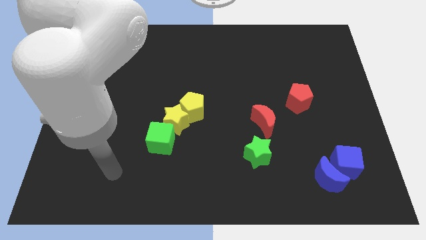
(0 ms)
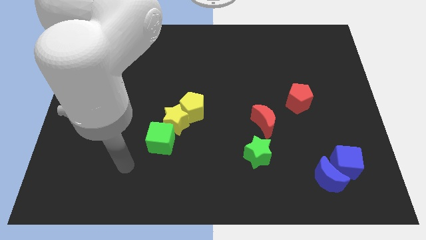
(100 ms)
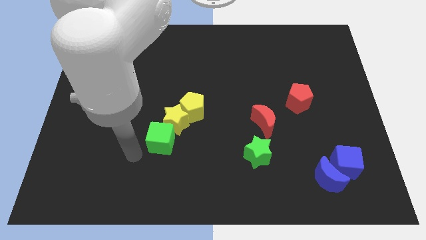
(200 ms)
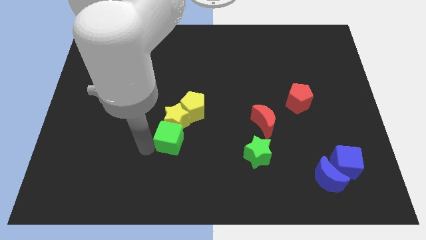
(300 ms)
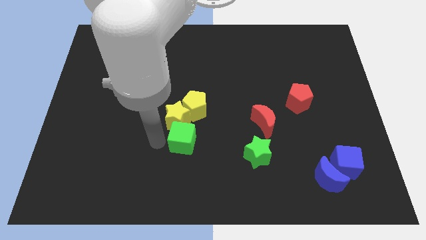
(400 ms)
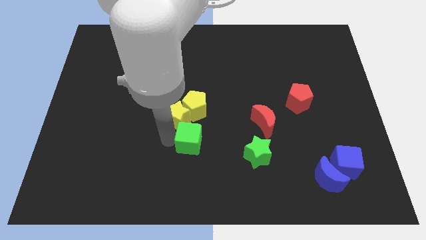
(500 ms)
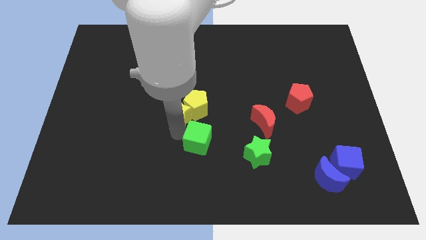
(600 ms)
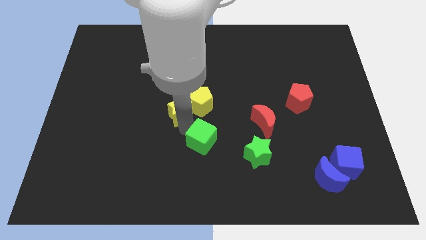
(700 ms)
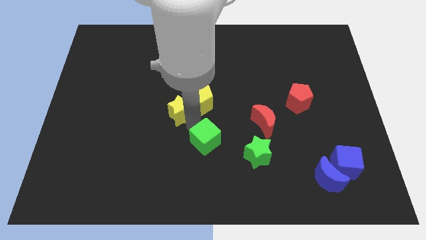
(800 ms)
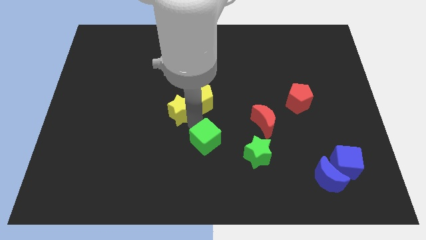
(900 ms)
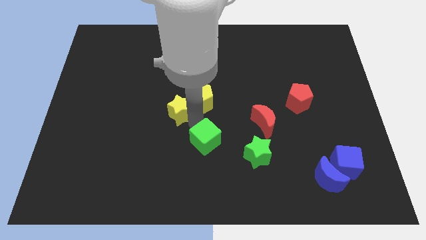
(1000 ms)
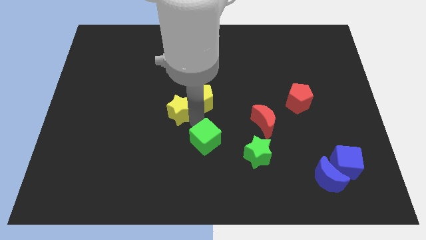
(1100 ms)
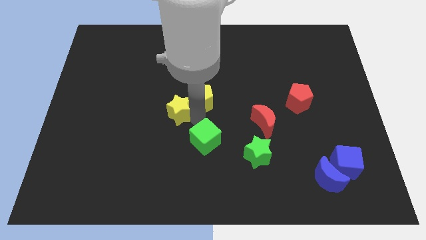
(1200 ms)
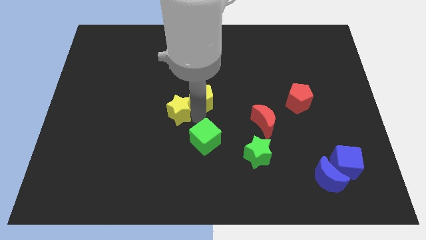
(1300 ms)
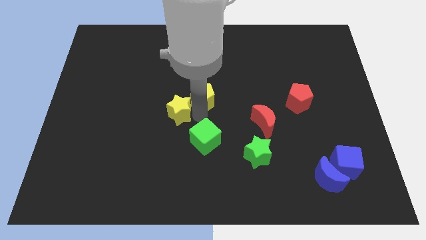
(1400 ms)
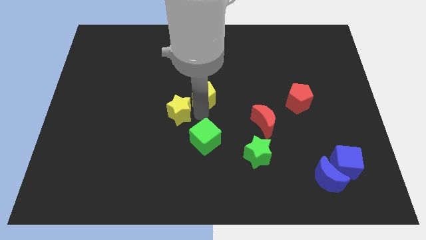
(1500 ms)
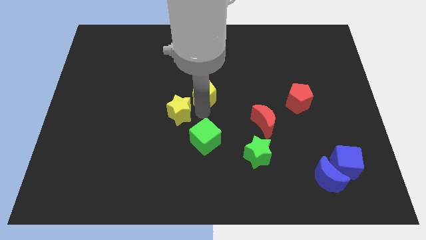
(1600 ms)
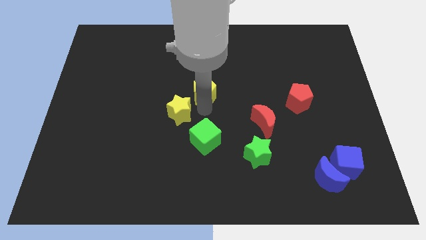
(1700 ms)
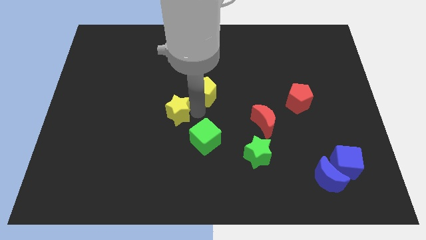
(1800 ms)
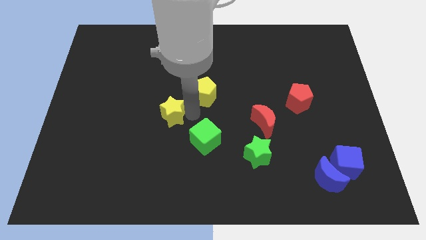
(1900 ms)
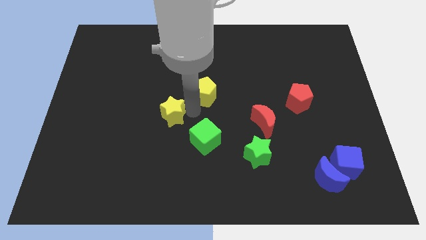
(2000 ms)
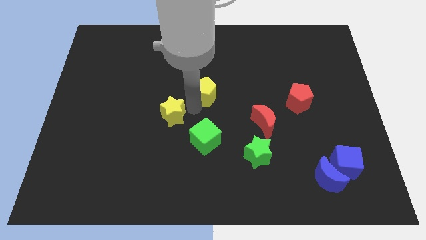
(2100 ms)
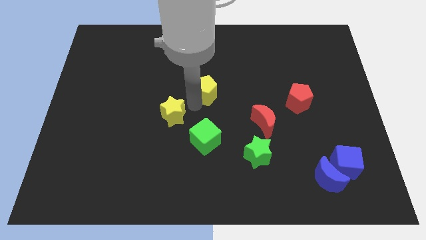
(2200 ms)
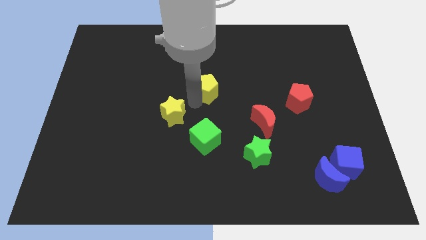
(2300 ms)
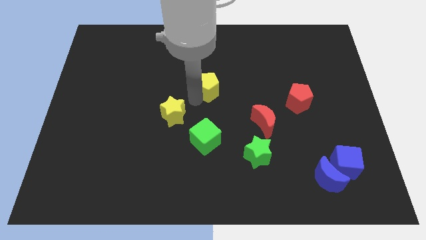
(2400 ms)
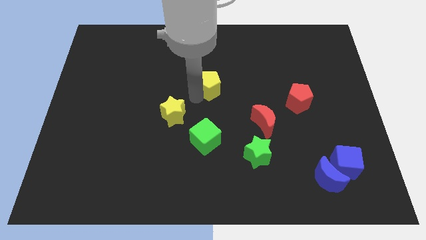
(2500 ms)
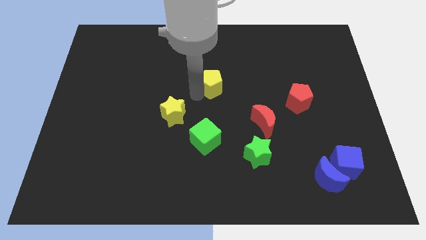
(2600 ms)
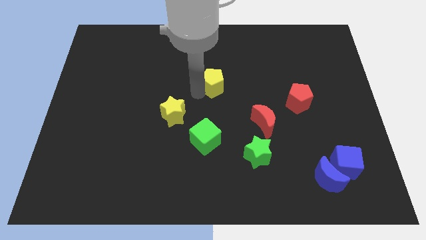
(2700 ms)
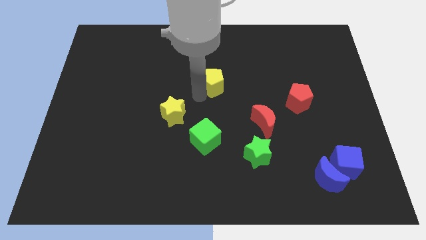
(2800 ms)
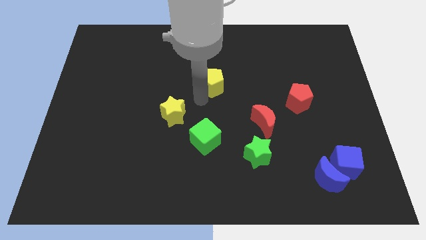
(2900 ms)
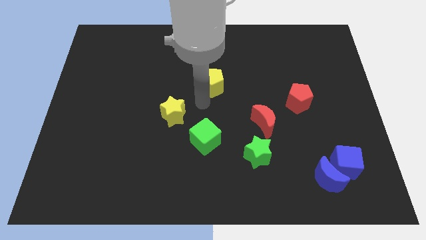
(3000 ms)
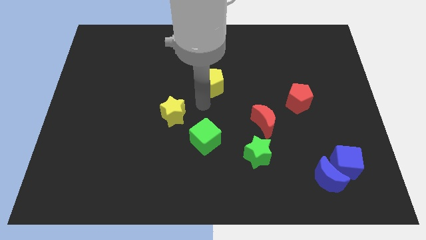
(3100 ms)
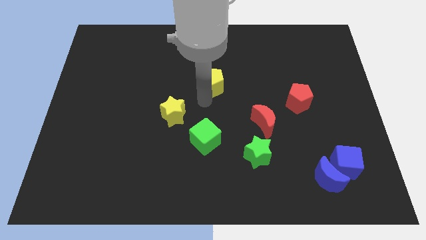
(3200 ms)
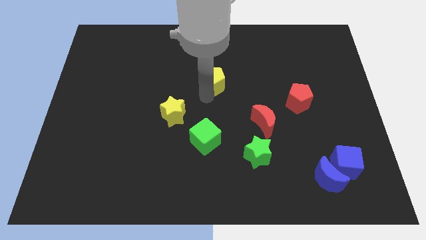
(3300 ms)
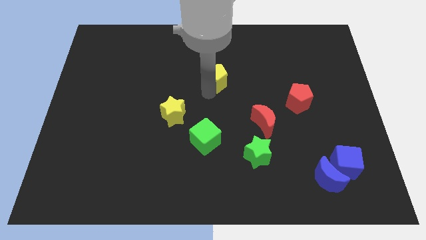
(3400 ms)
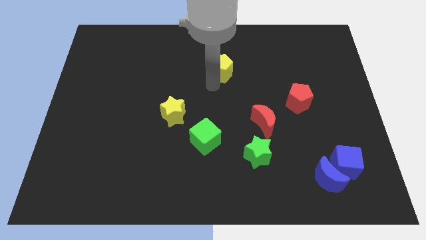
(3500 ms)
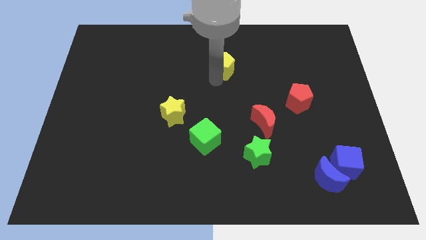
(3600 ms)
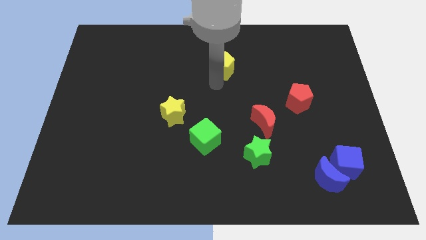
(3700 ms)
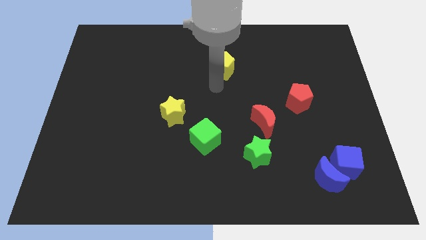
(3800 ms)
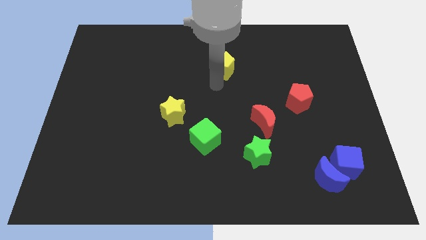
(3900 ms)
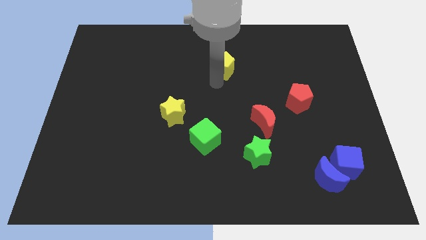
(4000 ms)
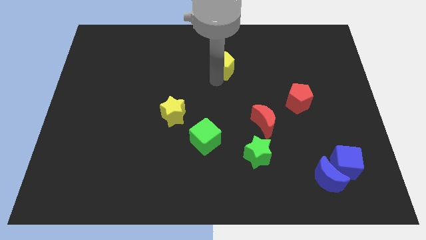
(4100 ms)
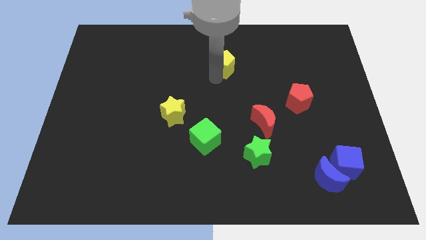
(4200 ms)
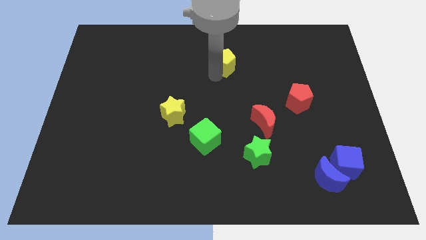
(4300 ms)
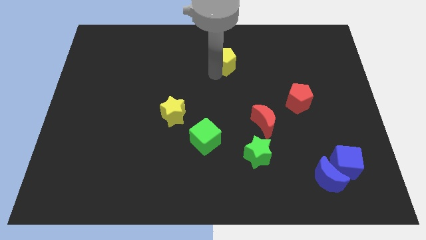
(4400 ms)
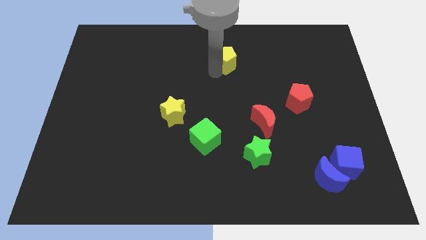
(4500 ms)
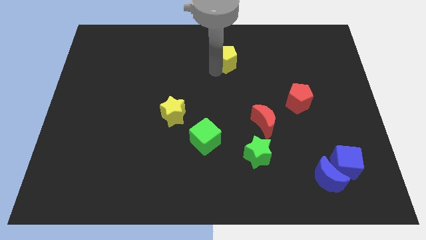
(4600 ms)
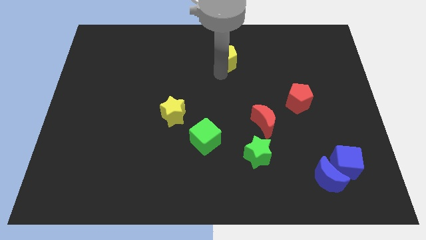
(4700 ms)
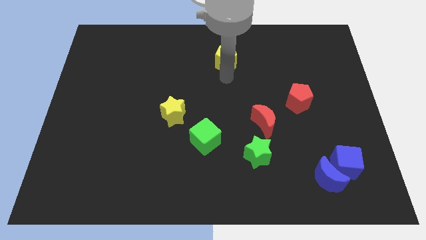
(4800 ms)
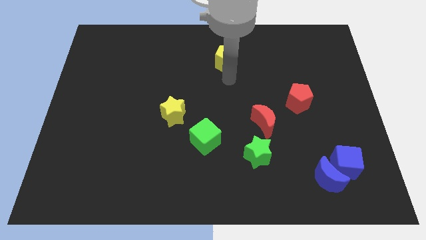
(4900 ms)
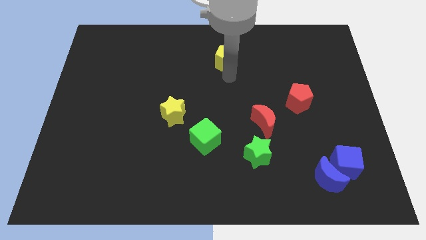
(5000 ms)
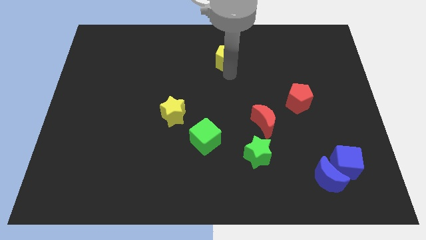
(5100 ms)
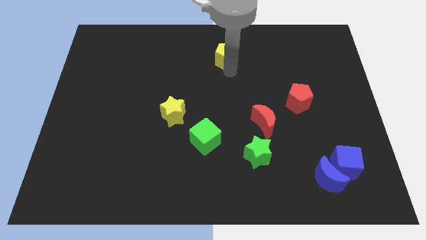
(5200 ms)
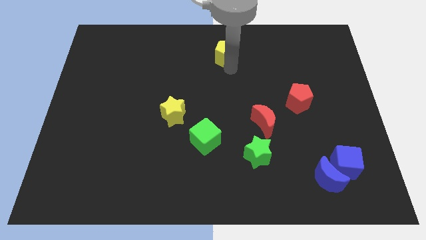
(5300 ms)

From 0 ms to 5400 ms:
push the yellow pentagon to the towards your base

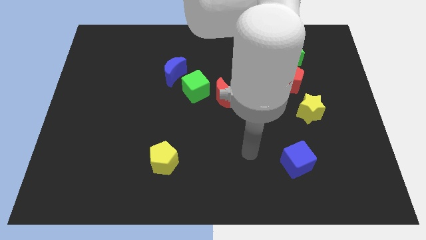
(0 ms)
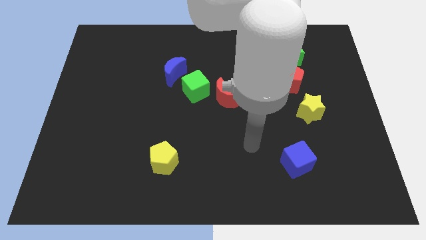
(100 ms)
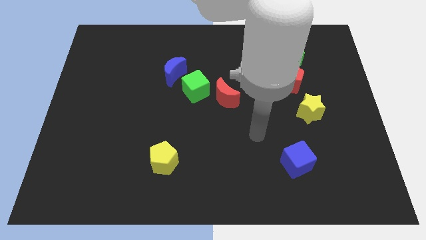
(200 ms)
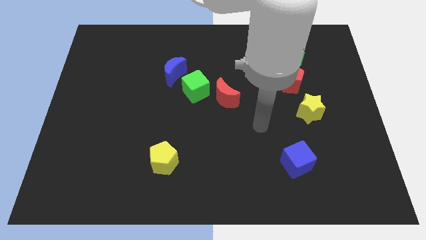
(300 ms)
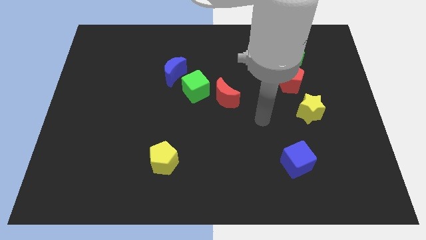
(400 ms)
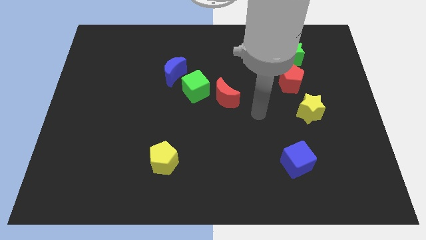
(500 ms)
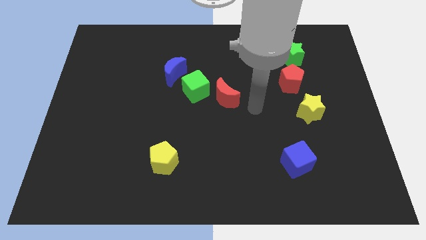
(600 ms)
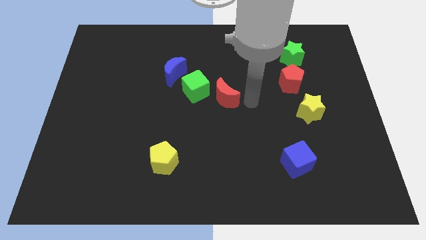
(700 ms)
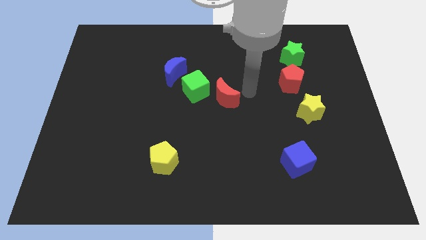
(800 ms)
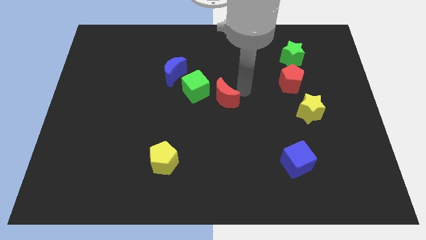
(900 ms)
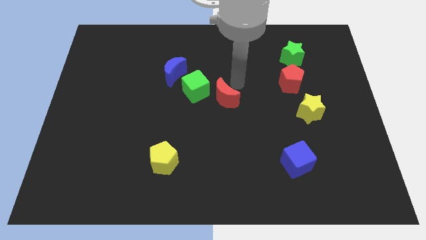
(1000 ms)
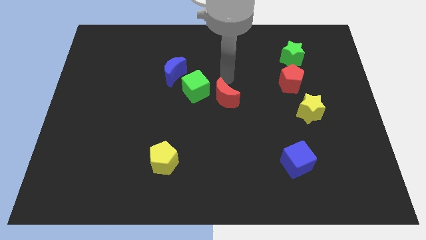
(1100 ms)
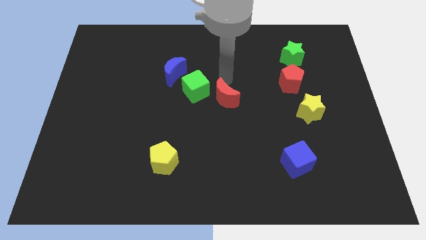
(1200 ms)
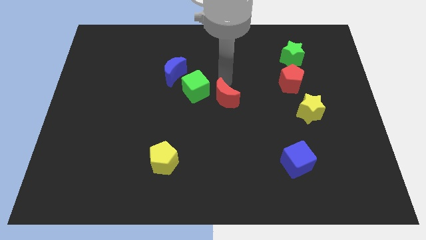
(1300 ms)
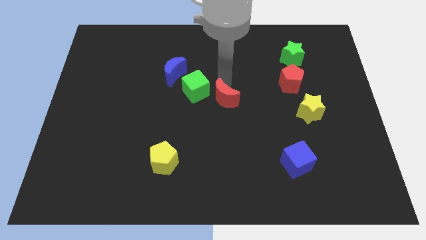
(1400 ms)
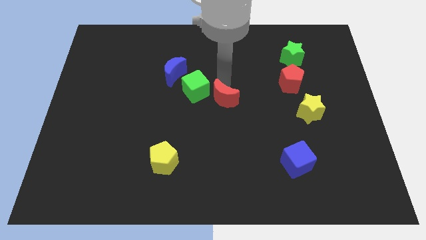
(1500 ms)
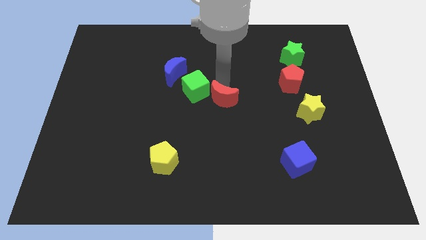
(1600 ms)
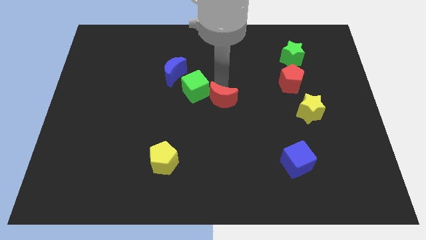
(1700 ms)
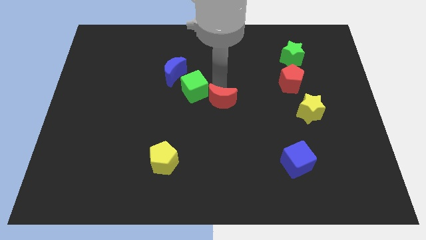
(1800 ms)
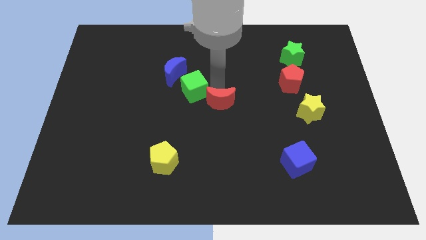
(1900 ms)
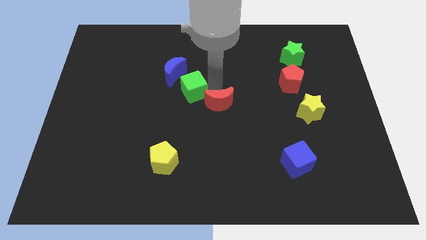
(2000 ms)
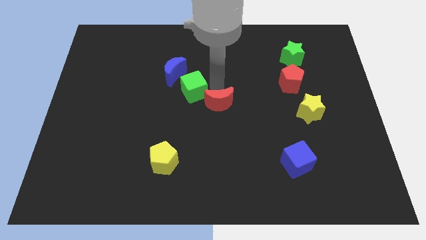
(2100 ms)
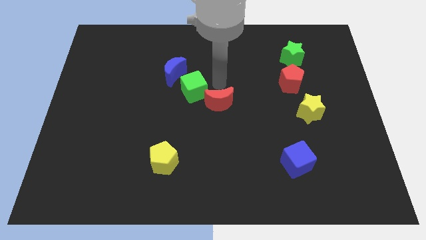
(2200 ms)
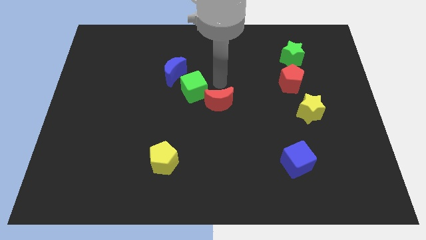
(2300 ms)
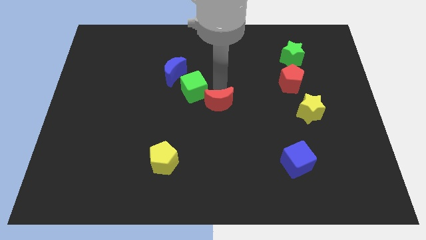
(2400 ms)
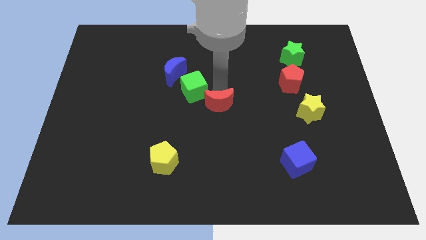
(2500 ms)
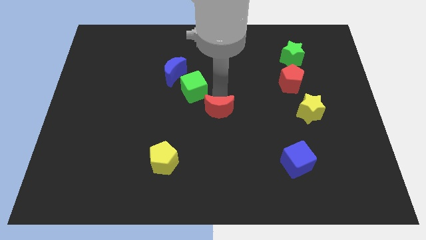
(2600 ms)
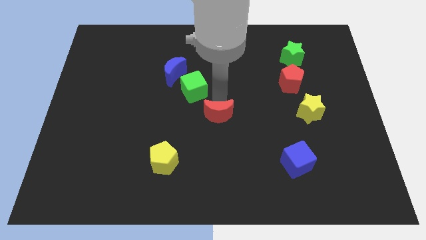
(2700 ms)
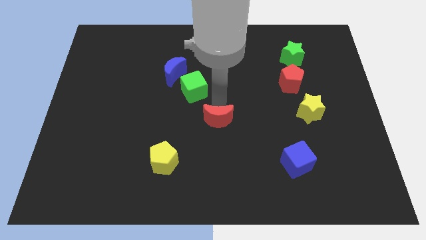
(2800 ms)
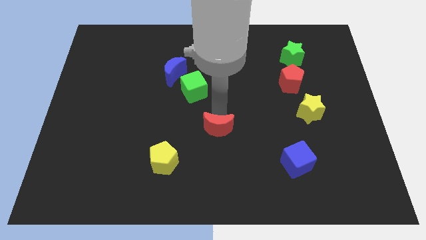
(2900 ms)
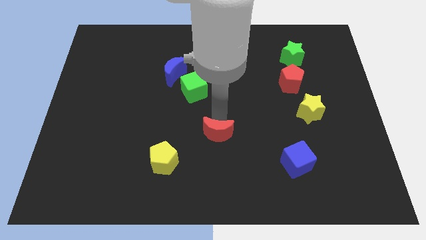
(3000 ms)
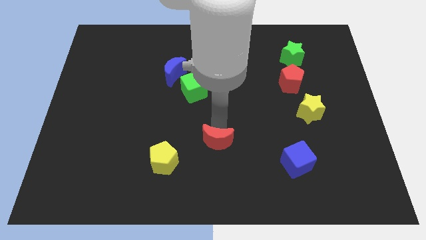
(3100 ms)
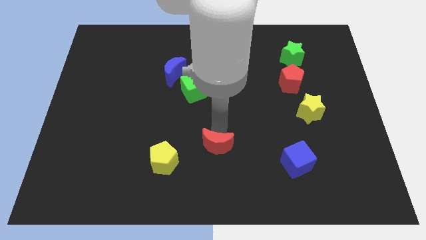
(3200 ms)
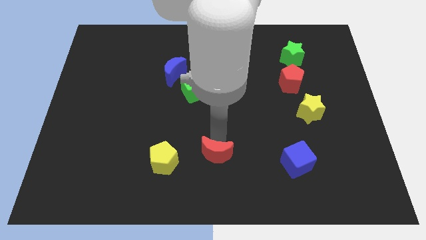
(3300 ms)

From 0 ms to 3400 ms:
put the red moon to the bottom
